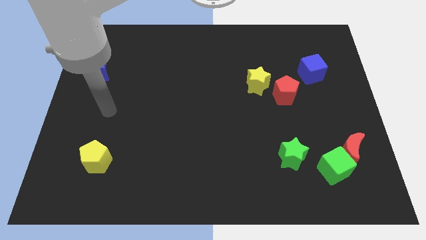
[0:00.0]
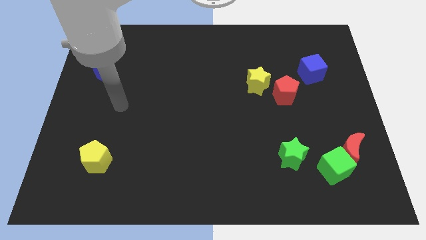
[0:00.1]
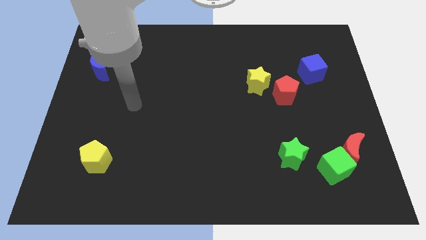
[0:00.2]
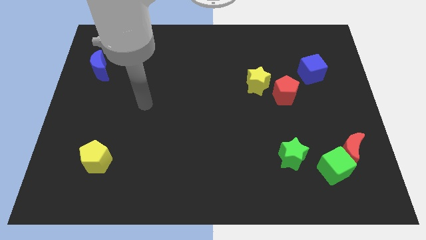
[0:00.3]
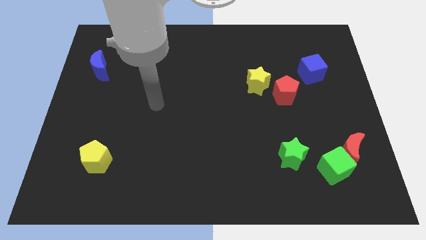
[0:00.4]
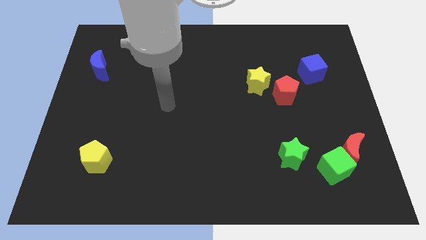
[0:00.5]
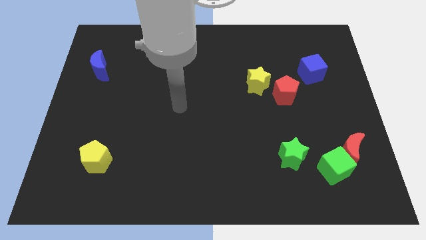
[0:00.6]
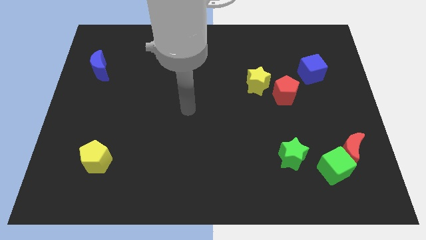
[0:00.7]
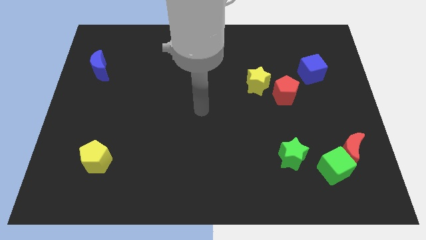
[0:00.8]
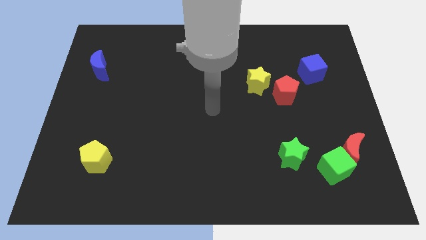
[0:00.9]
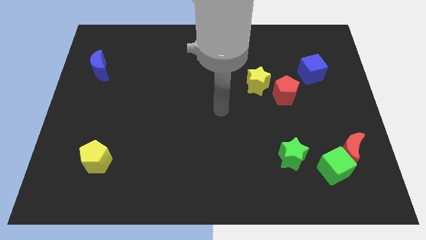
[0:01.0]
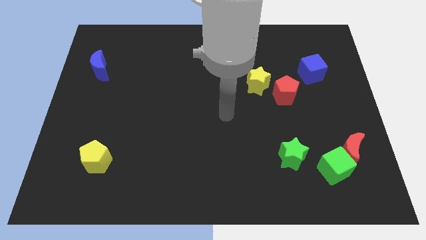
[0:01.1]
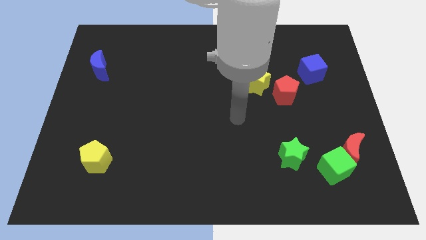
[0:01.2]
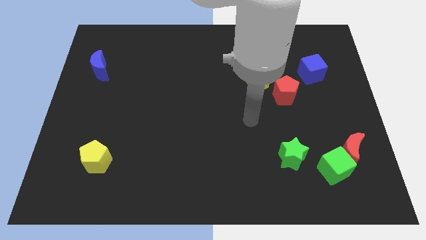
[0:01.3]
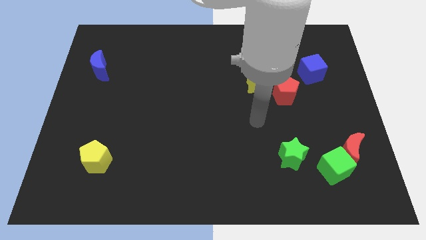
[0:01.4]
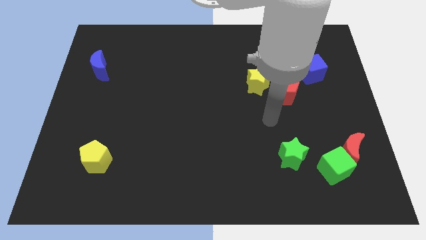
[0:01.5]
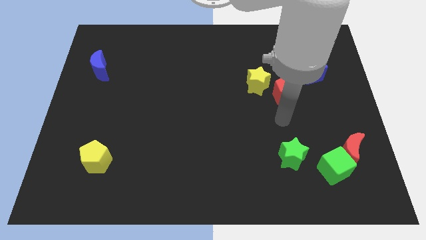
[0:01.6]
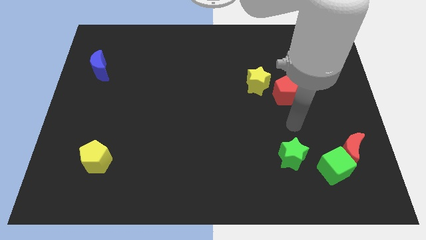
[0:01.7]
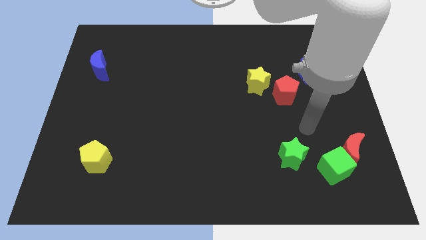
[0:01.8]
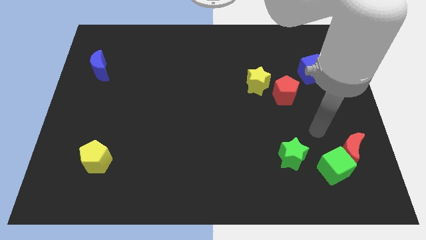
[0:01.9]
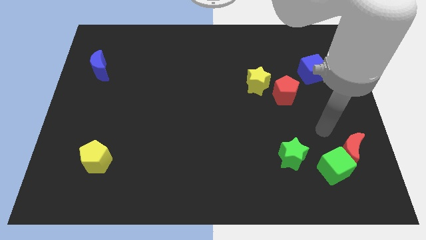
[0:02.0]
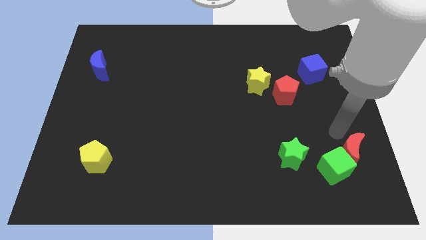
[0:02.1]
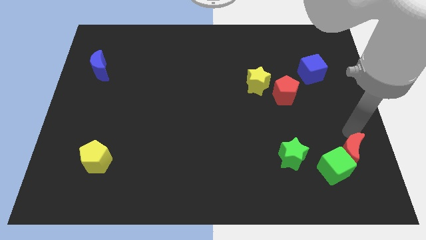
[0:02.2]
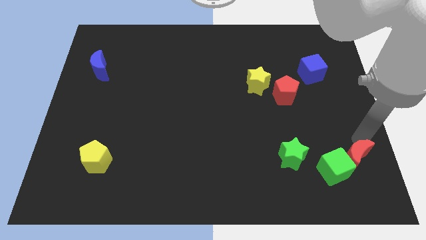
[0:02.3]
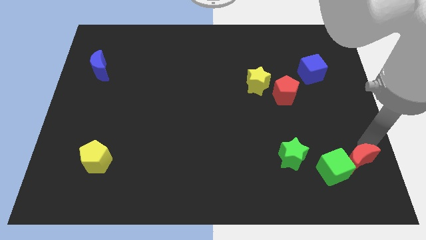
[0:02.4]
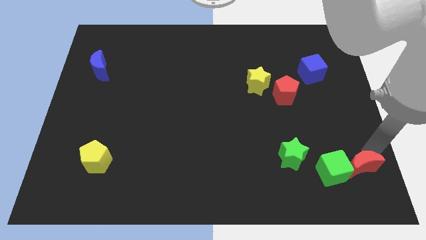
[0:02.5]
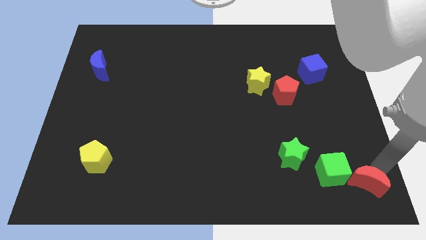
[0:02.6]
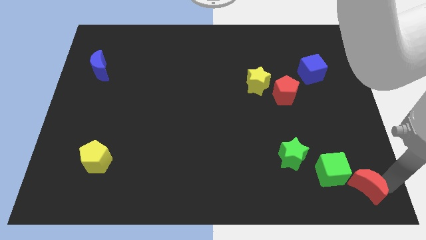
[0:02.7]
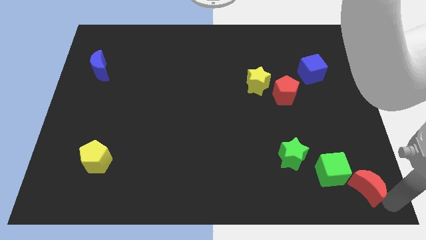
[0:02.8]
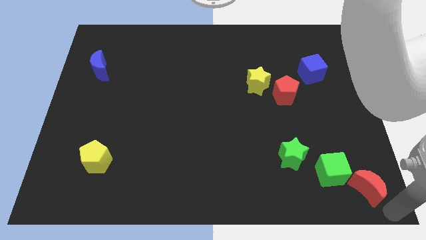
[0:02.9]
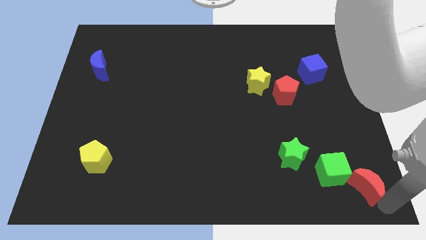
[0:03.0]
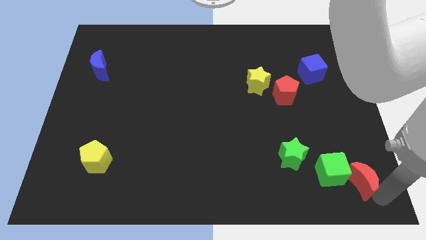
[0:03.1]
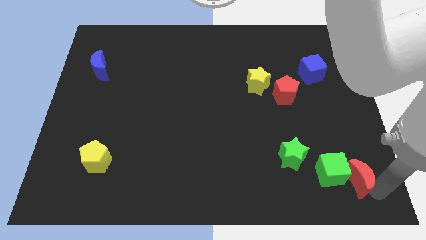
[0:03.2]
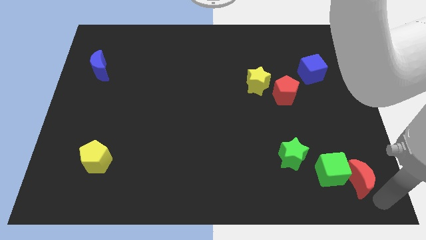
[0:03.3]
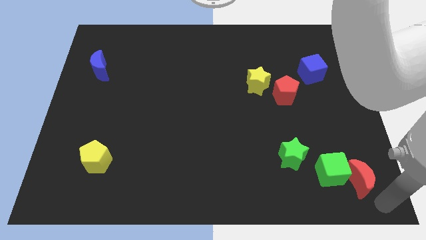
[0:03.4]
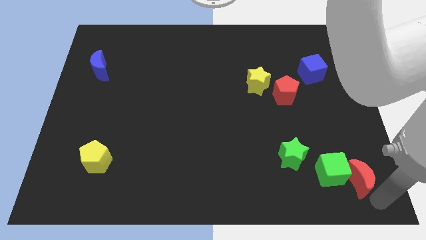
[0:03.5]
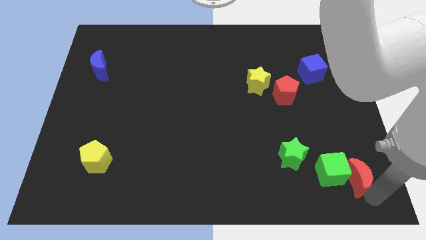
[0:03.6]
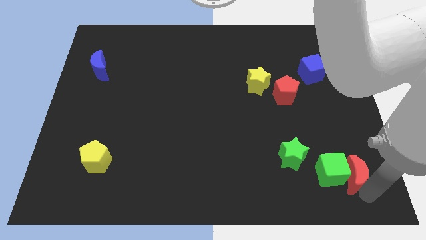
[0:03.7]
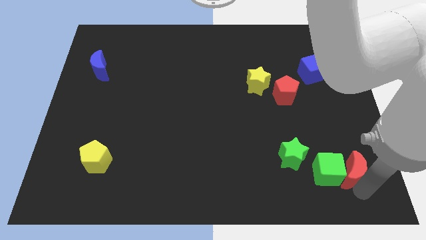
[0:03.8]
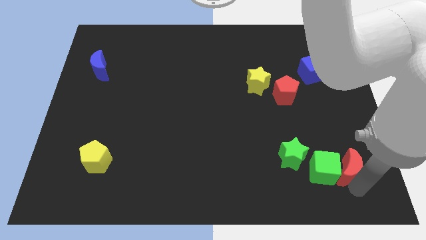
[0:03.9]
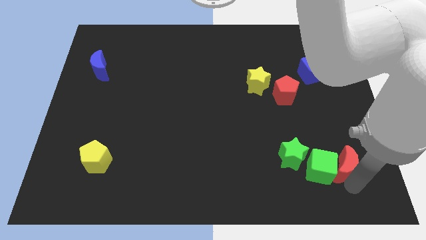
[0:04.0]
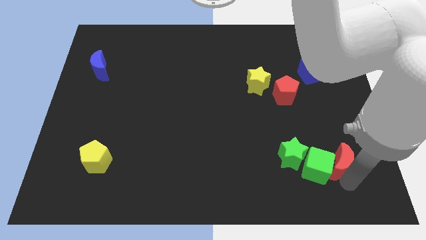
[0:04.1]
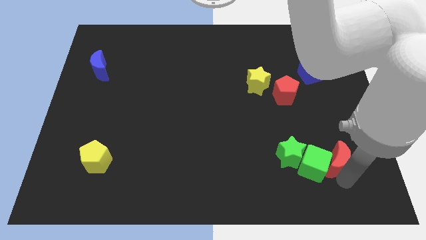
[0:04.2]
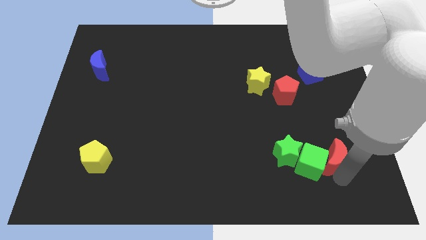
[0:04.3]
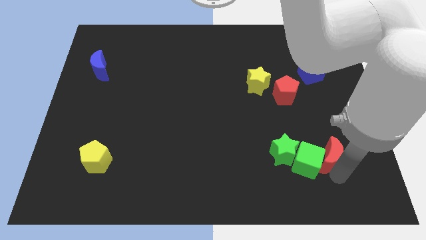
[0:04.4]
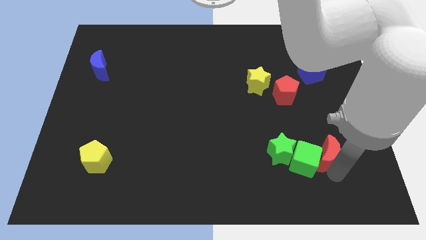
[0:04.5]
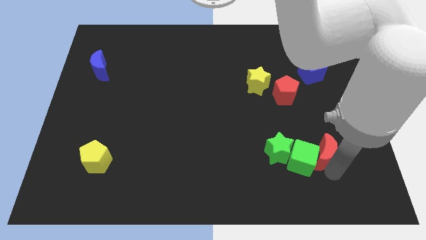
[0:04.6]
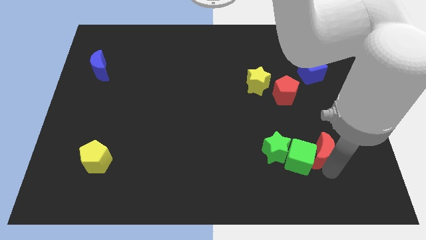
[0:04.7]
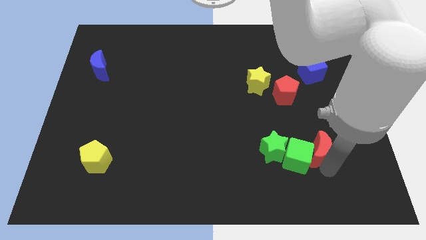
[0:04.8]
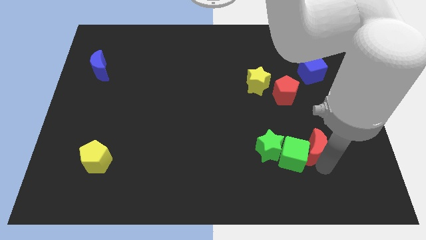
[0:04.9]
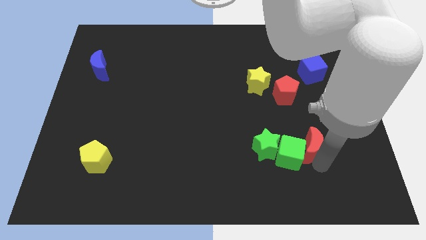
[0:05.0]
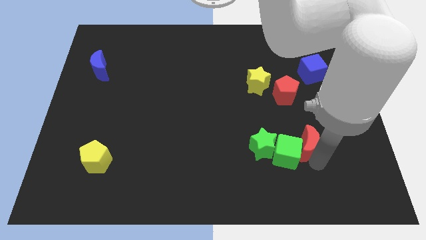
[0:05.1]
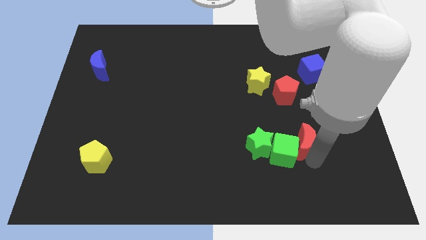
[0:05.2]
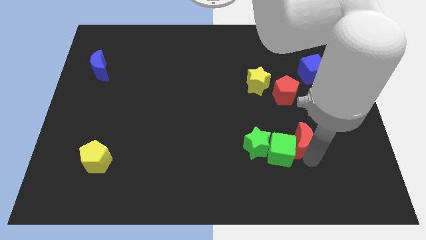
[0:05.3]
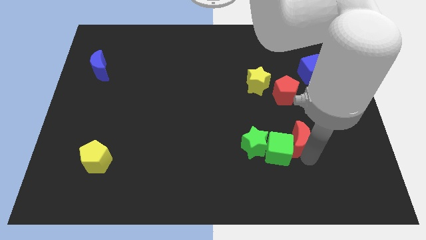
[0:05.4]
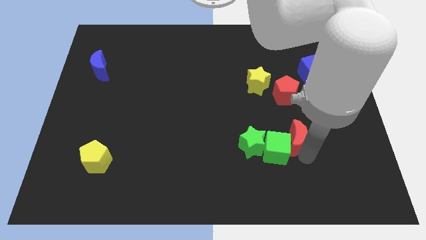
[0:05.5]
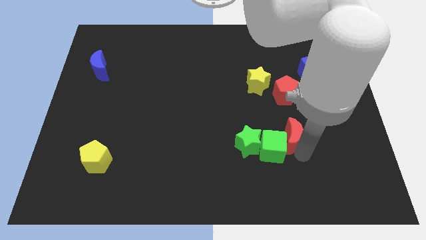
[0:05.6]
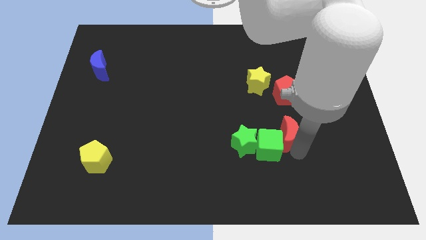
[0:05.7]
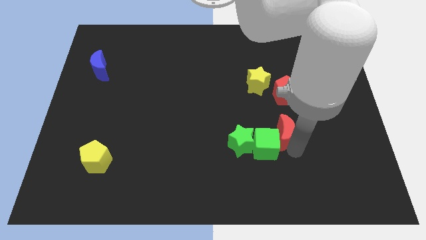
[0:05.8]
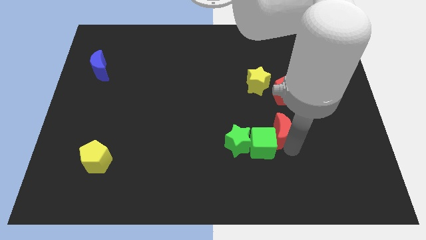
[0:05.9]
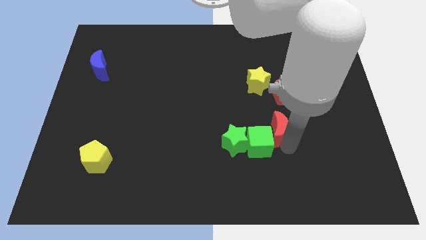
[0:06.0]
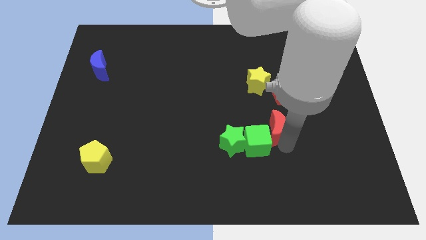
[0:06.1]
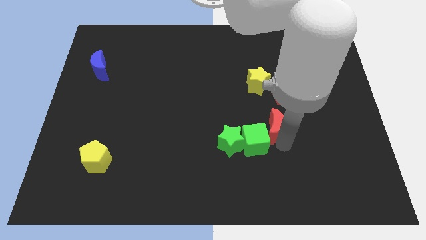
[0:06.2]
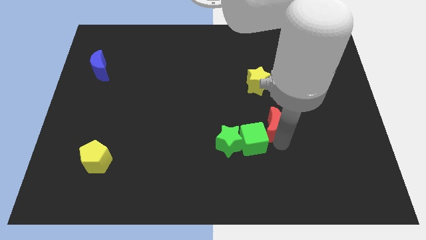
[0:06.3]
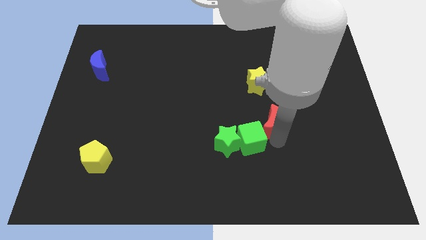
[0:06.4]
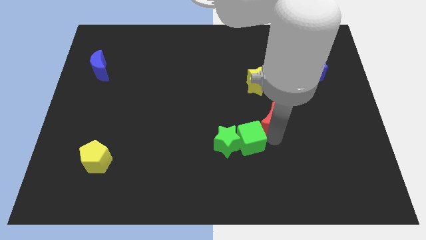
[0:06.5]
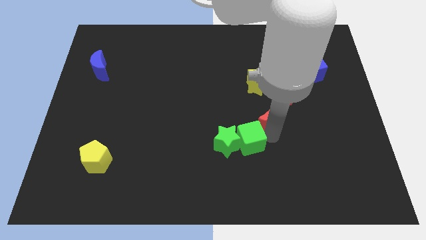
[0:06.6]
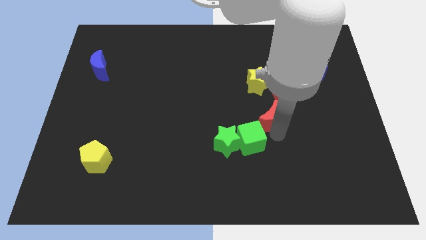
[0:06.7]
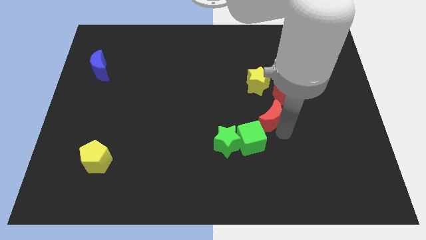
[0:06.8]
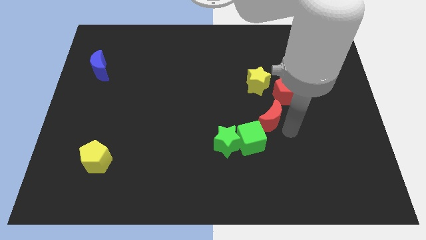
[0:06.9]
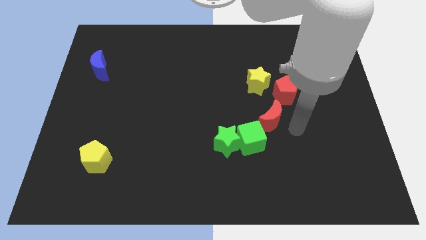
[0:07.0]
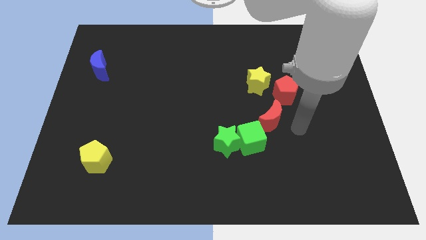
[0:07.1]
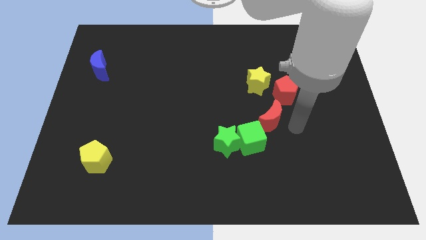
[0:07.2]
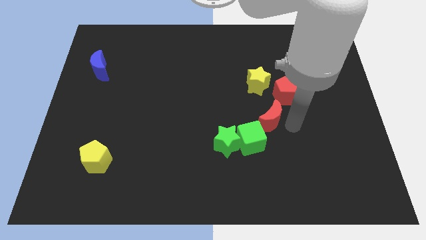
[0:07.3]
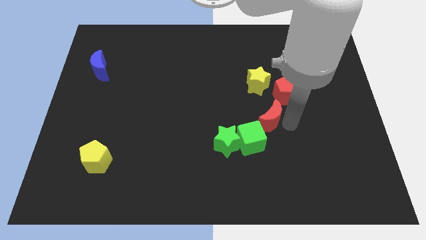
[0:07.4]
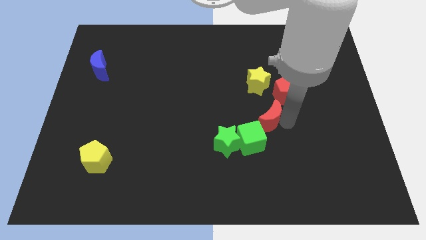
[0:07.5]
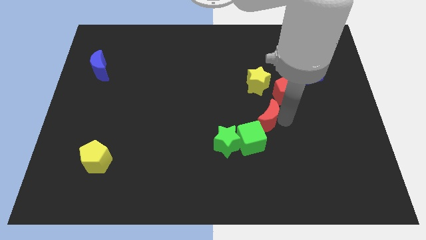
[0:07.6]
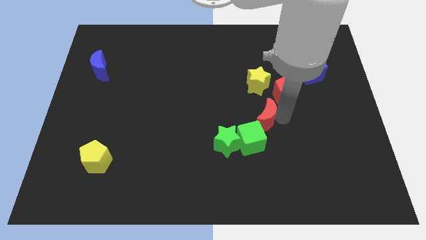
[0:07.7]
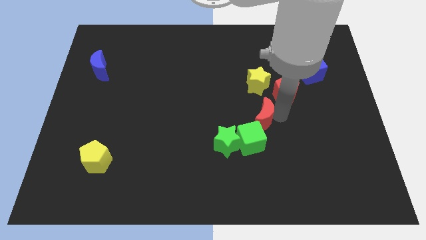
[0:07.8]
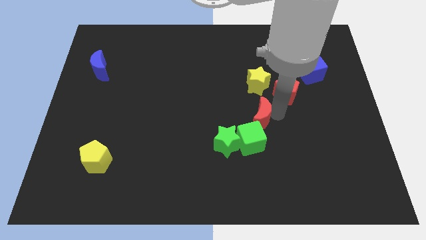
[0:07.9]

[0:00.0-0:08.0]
move the red moon to the middle
